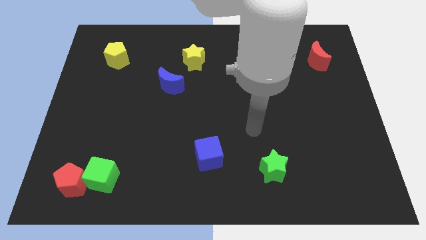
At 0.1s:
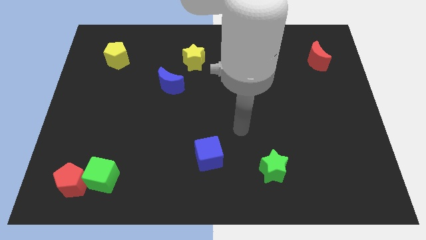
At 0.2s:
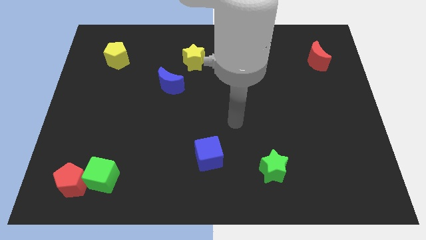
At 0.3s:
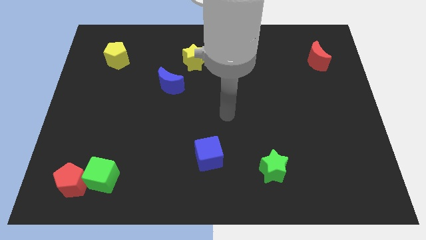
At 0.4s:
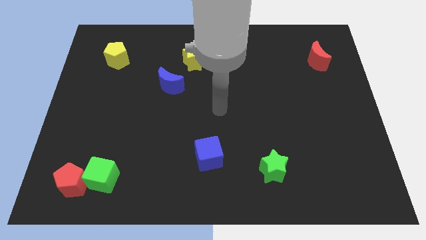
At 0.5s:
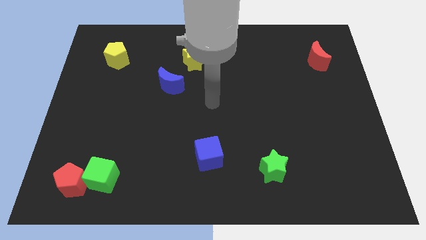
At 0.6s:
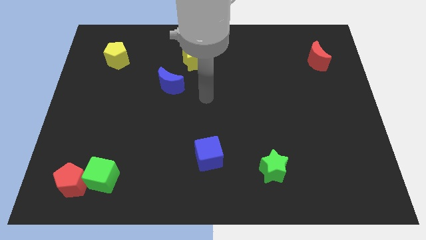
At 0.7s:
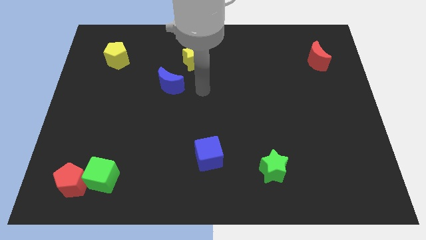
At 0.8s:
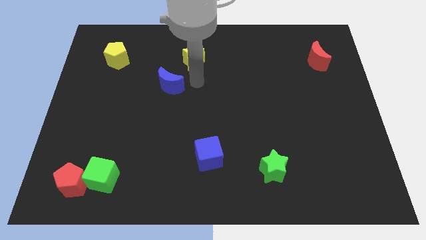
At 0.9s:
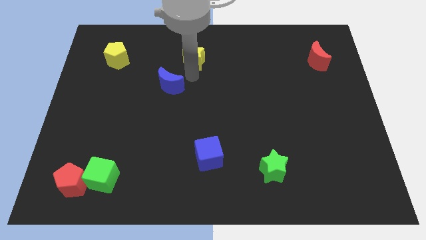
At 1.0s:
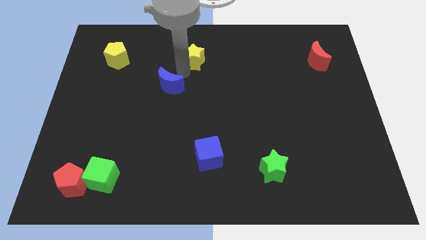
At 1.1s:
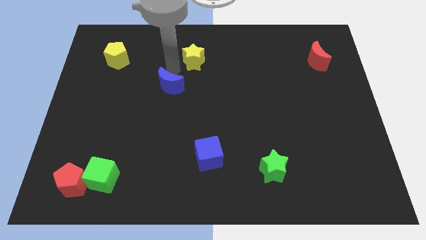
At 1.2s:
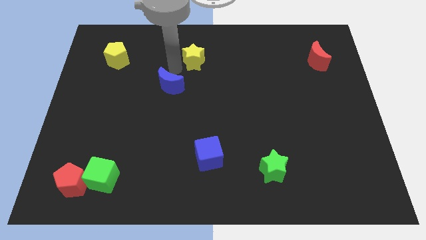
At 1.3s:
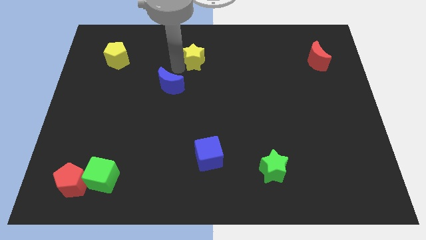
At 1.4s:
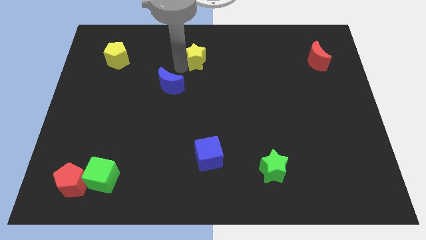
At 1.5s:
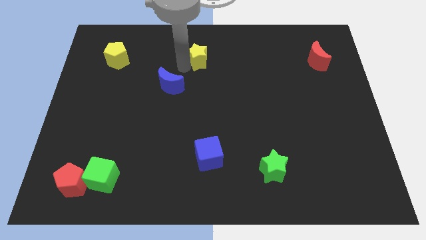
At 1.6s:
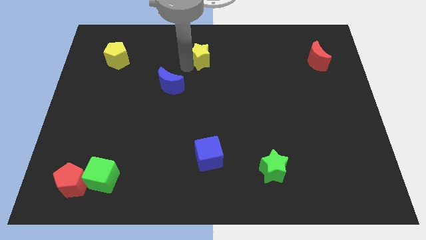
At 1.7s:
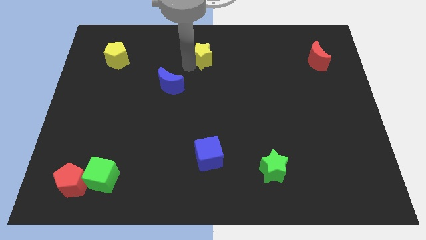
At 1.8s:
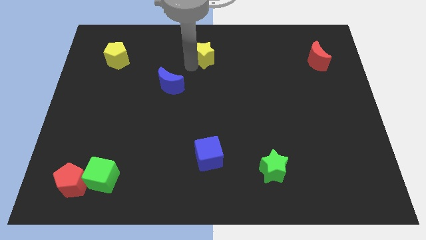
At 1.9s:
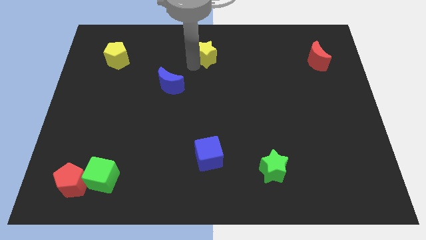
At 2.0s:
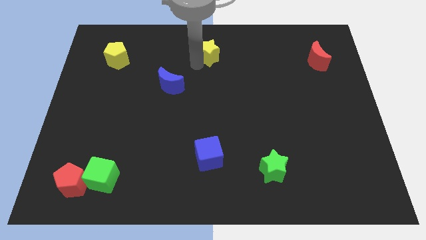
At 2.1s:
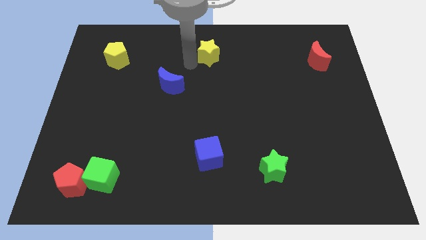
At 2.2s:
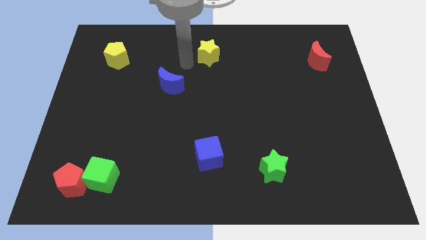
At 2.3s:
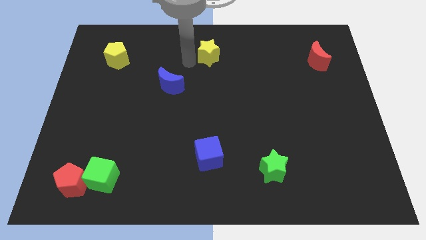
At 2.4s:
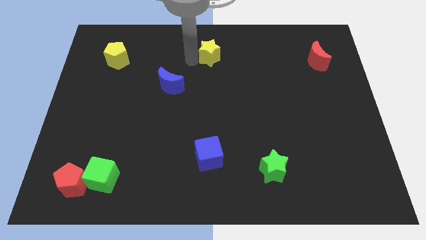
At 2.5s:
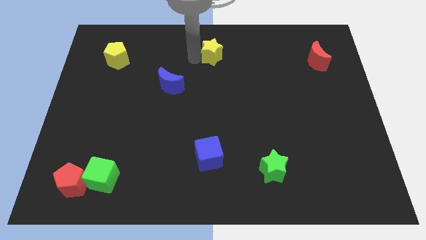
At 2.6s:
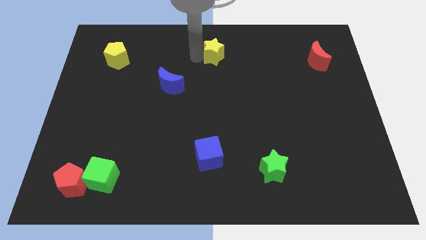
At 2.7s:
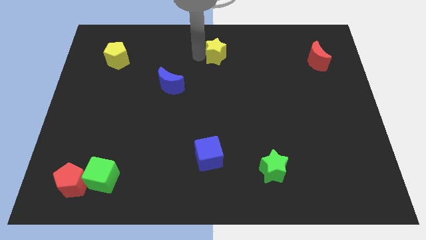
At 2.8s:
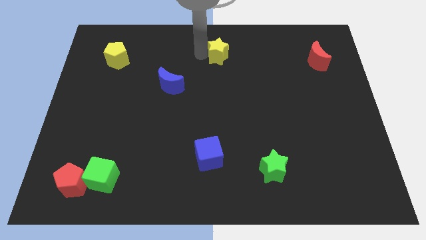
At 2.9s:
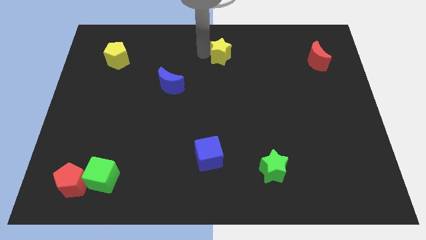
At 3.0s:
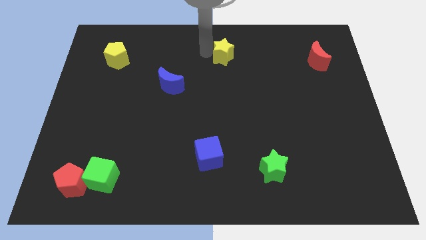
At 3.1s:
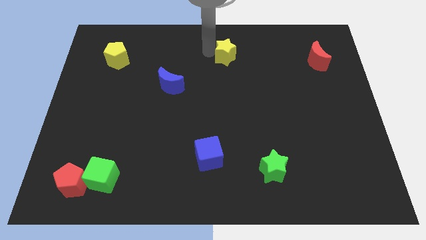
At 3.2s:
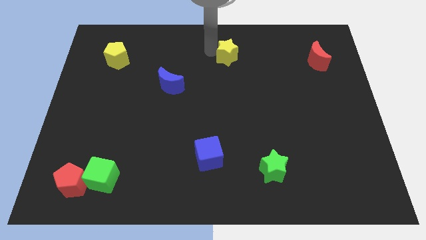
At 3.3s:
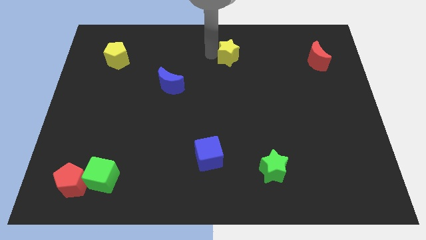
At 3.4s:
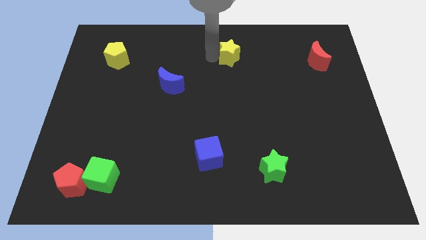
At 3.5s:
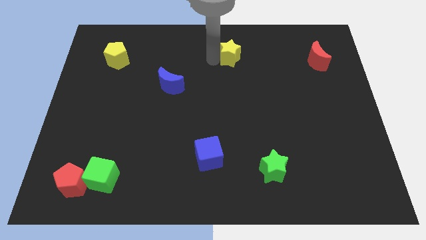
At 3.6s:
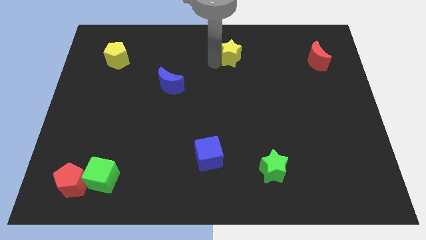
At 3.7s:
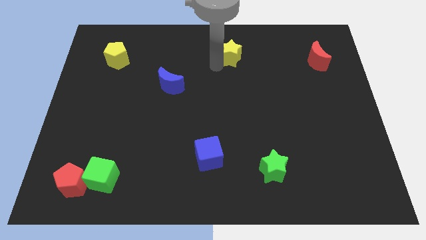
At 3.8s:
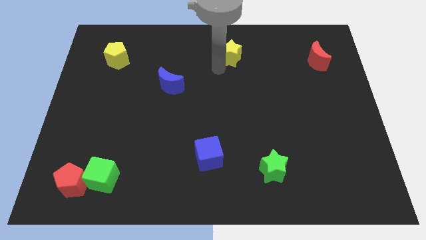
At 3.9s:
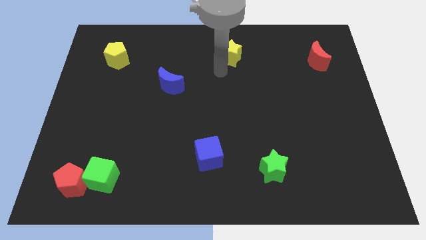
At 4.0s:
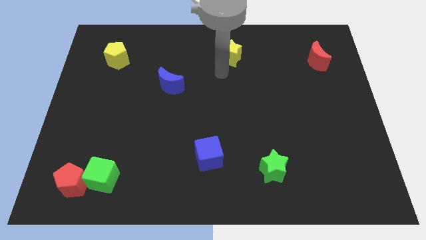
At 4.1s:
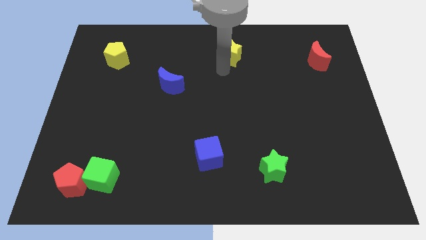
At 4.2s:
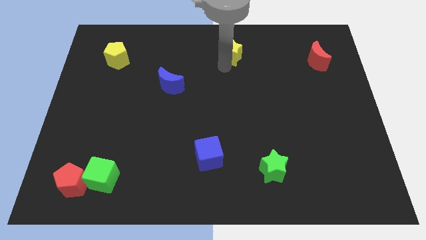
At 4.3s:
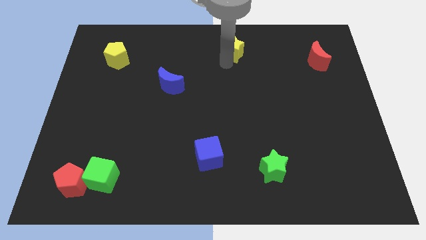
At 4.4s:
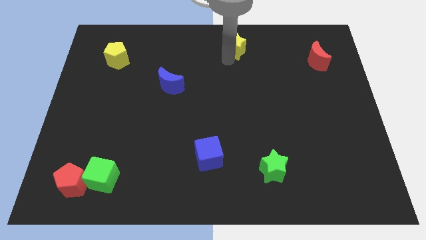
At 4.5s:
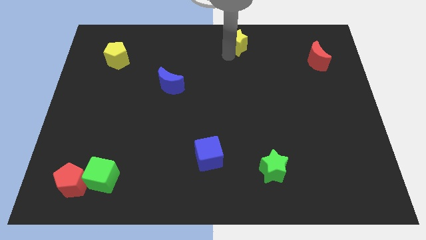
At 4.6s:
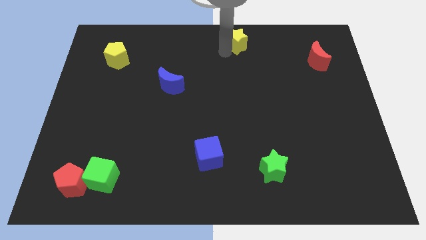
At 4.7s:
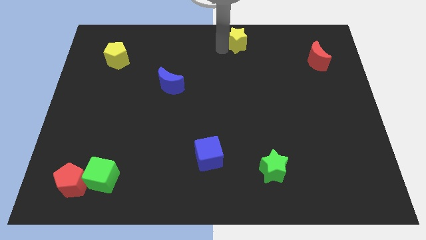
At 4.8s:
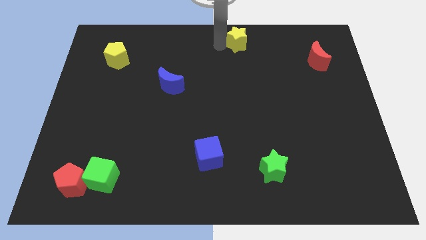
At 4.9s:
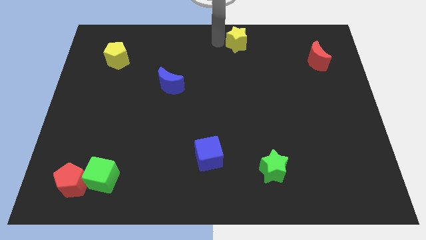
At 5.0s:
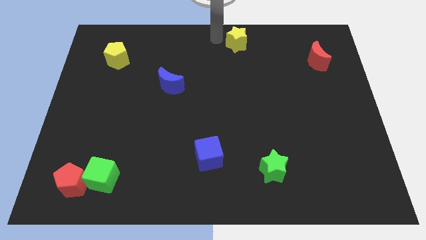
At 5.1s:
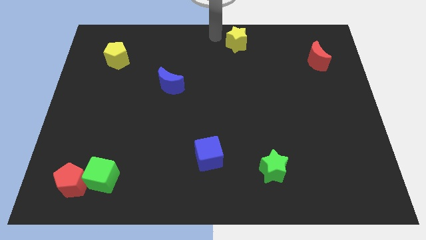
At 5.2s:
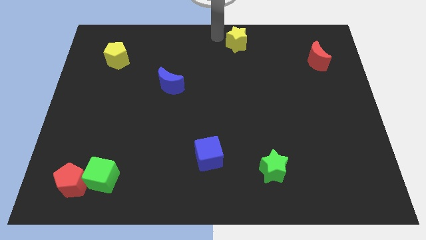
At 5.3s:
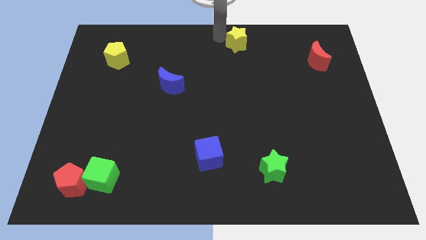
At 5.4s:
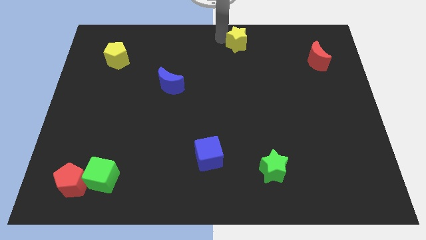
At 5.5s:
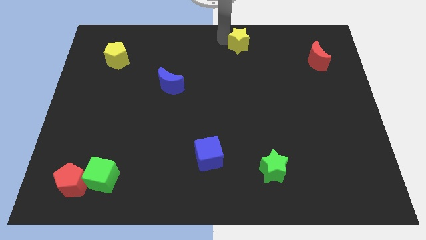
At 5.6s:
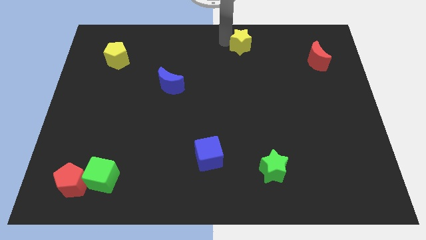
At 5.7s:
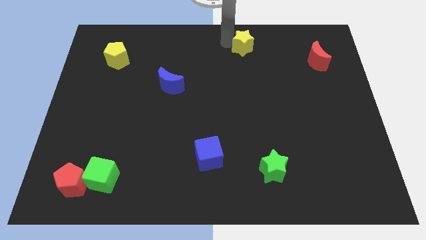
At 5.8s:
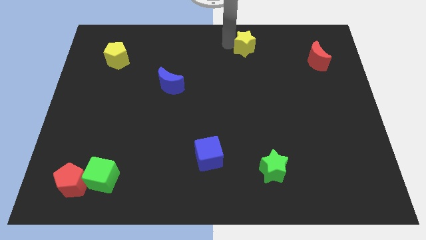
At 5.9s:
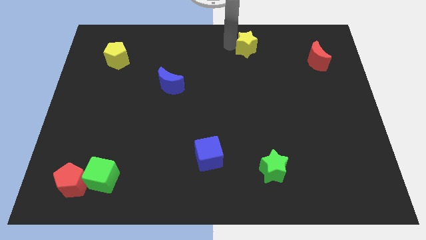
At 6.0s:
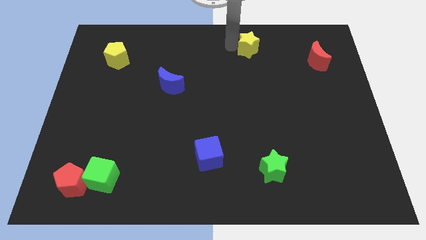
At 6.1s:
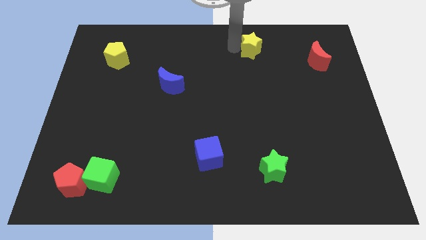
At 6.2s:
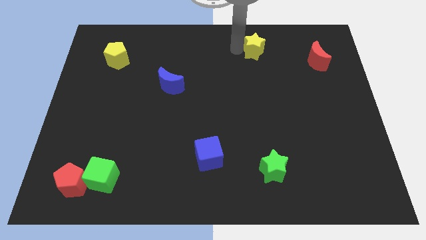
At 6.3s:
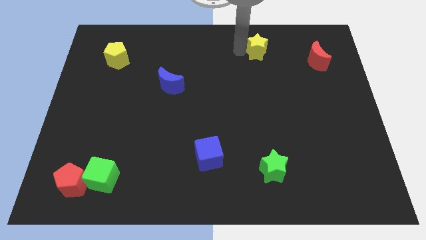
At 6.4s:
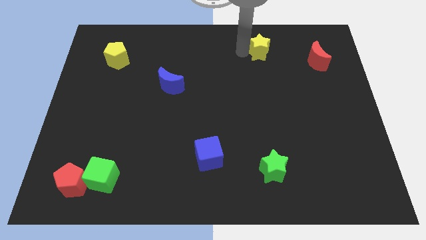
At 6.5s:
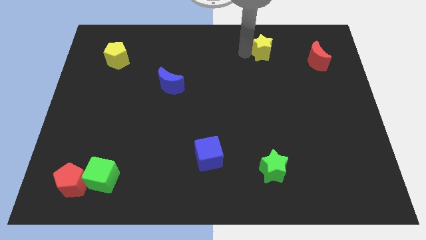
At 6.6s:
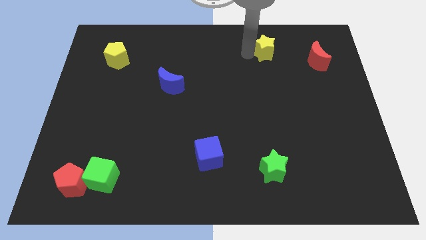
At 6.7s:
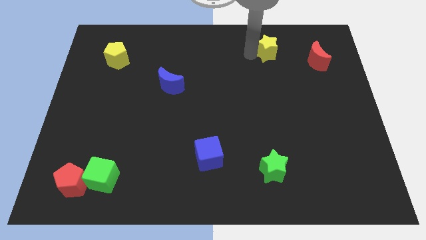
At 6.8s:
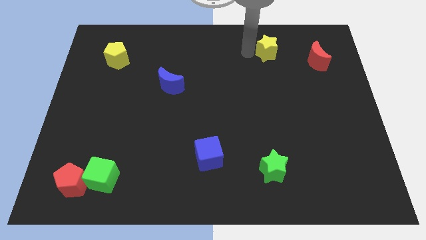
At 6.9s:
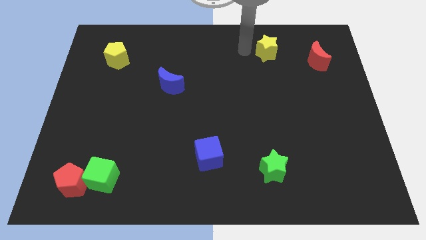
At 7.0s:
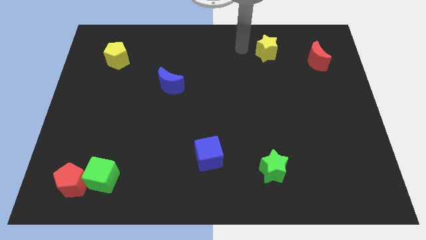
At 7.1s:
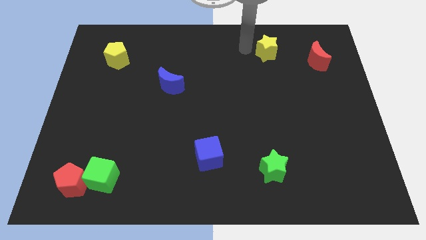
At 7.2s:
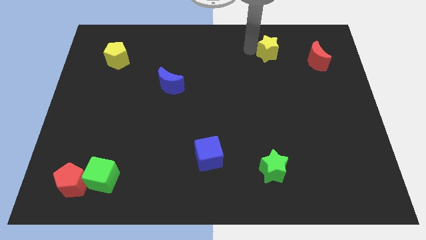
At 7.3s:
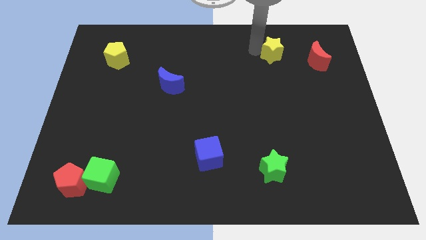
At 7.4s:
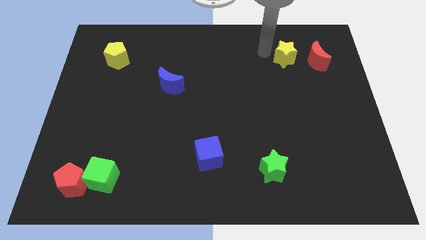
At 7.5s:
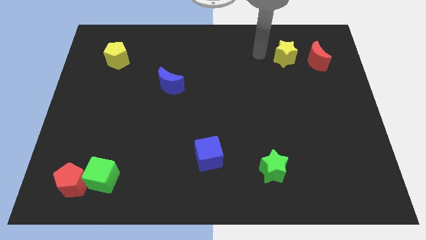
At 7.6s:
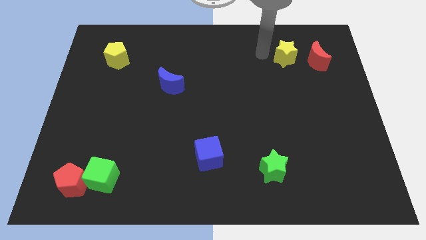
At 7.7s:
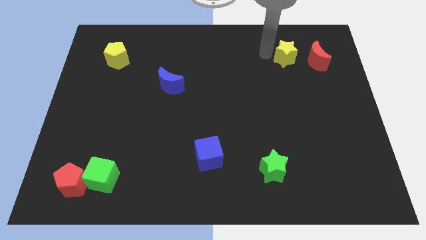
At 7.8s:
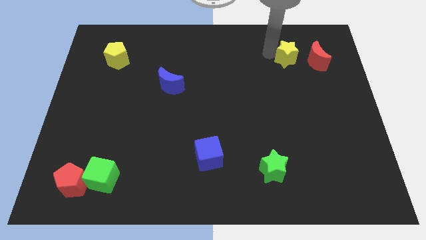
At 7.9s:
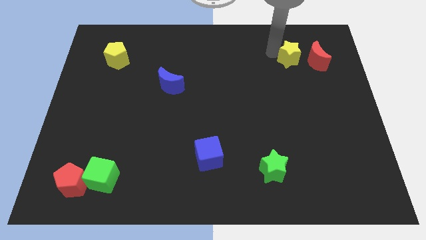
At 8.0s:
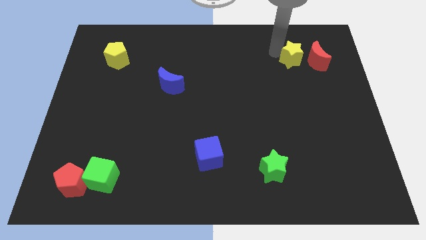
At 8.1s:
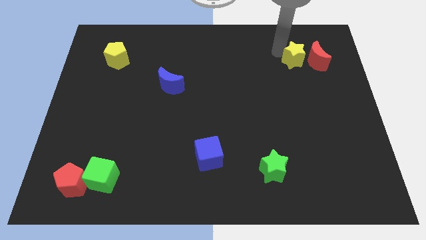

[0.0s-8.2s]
slide the yellow star to the red moon
